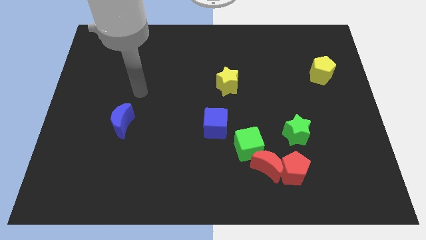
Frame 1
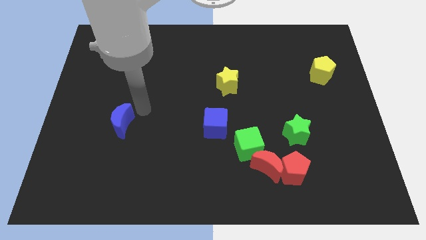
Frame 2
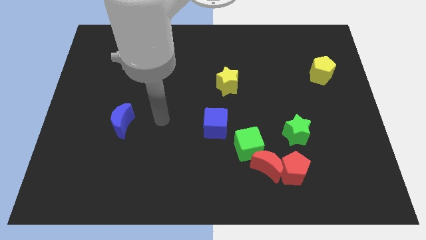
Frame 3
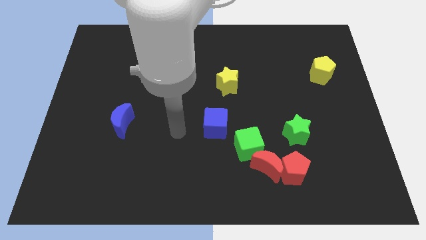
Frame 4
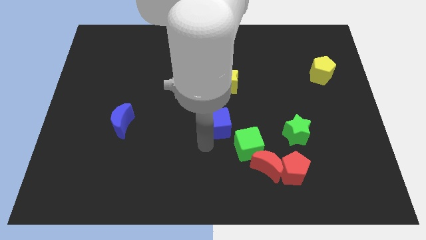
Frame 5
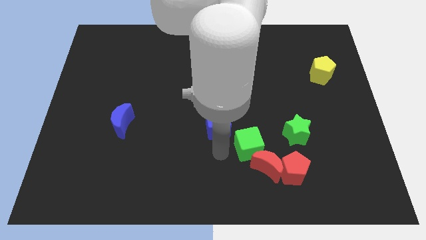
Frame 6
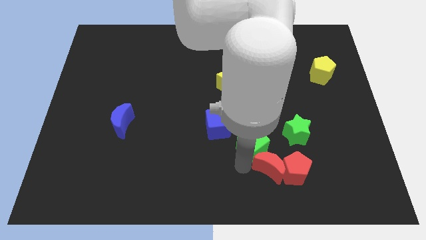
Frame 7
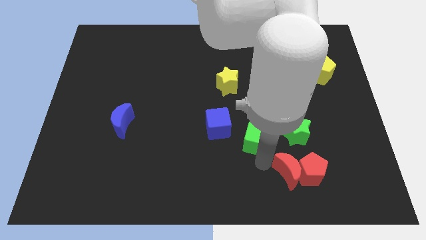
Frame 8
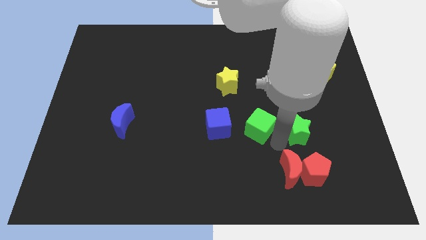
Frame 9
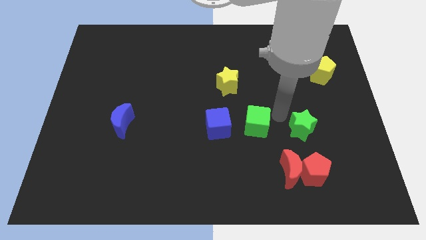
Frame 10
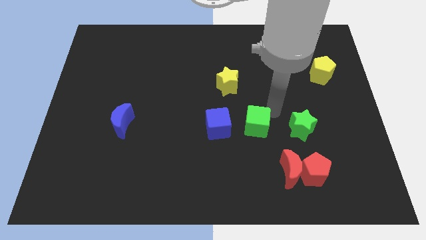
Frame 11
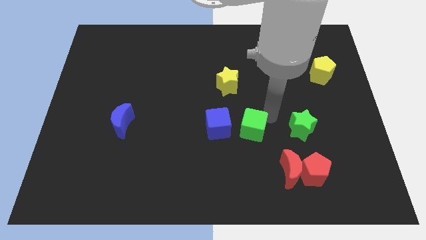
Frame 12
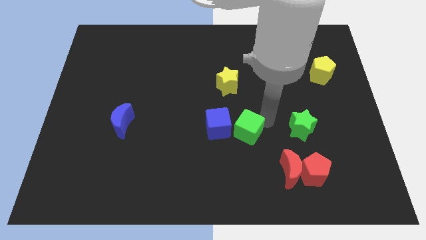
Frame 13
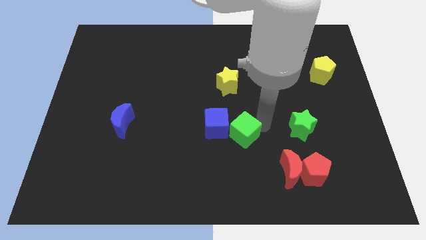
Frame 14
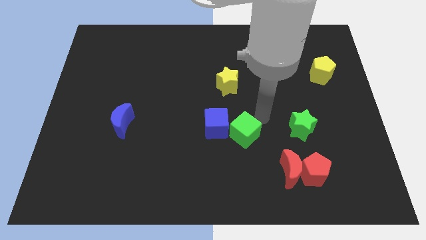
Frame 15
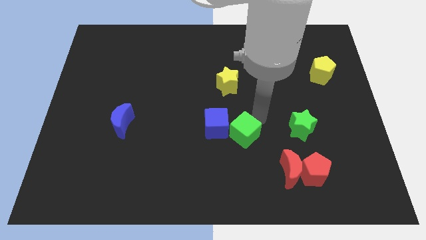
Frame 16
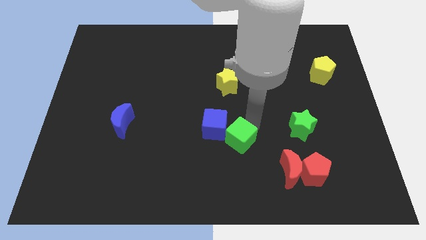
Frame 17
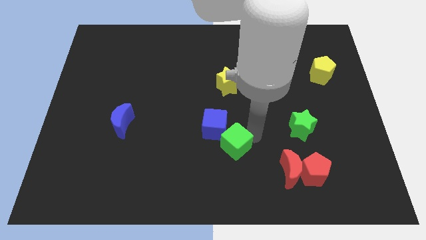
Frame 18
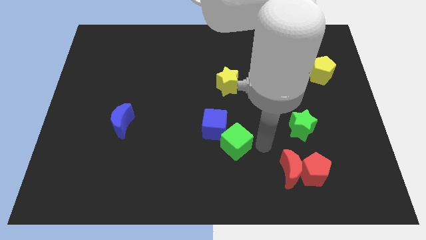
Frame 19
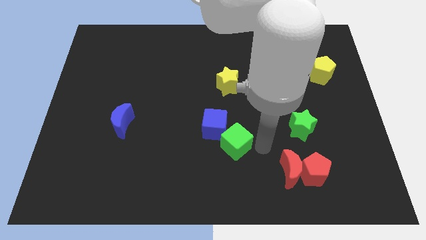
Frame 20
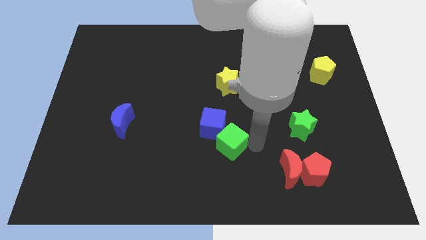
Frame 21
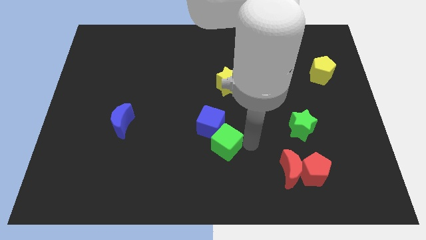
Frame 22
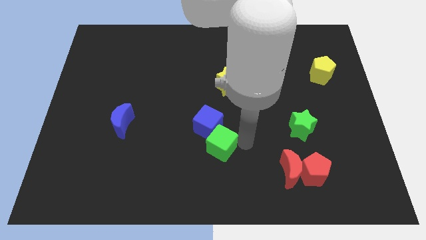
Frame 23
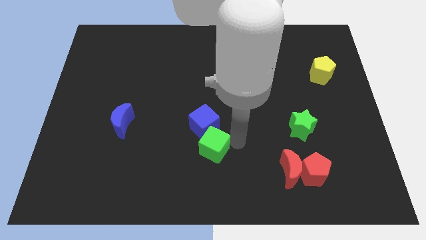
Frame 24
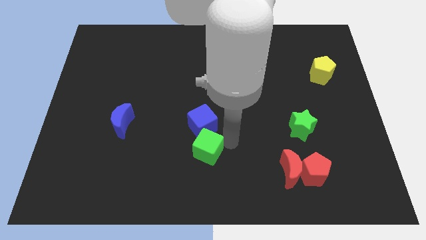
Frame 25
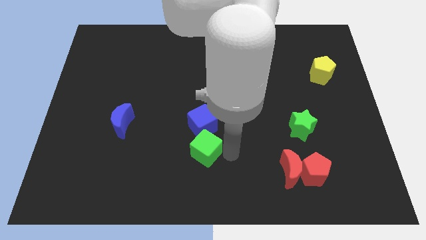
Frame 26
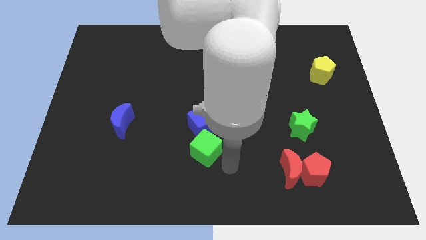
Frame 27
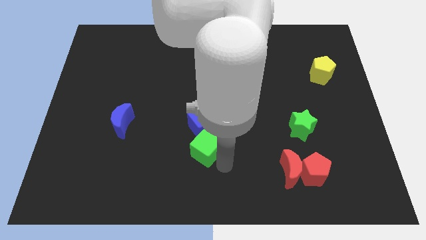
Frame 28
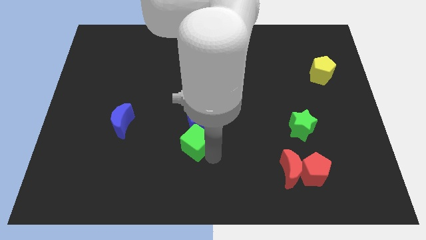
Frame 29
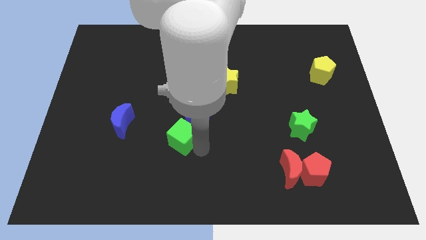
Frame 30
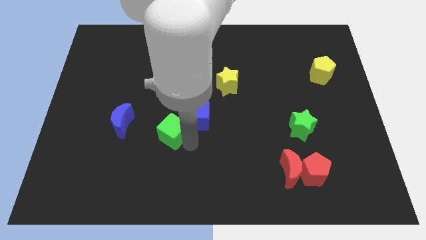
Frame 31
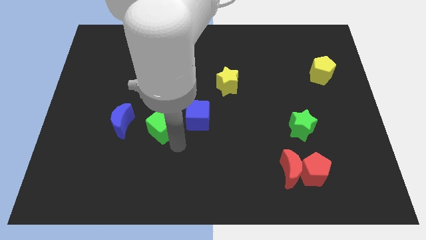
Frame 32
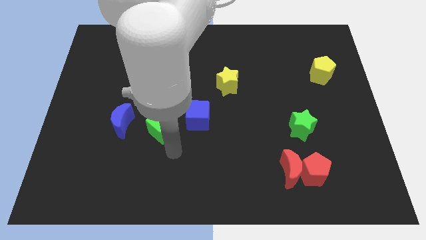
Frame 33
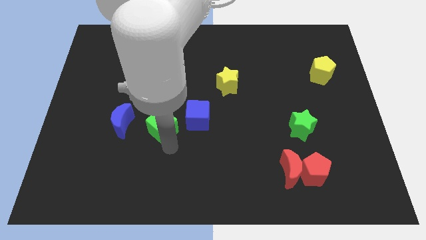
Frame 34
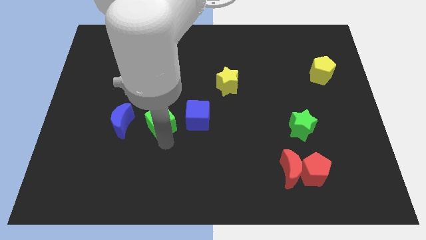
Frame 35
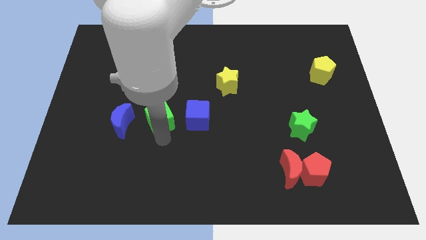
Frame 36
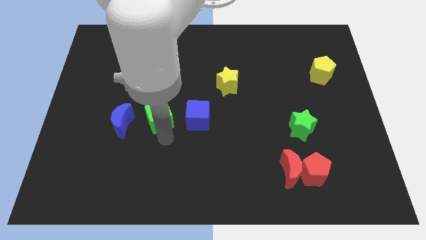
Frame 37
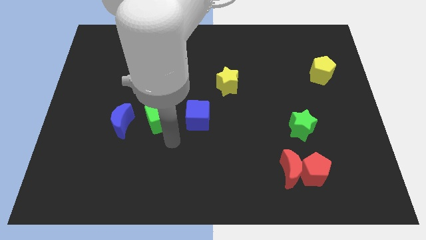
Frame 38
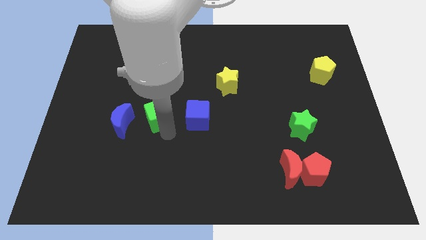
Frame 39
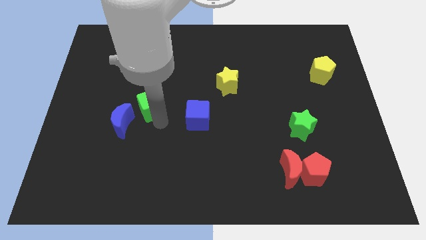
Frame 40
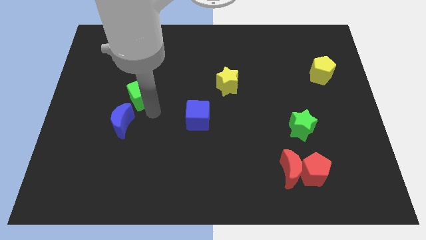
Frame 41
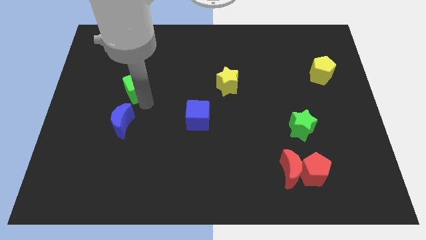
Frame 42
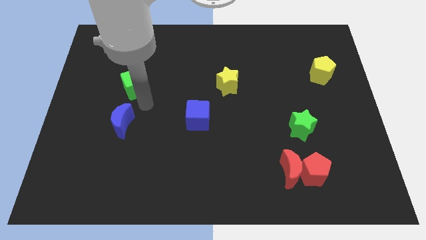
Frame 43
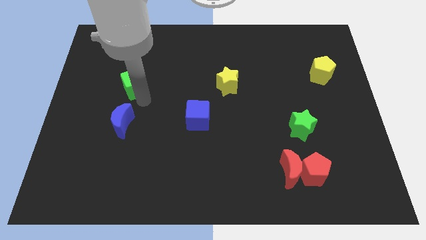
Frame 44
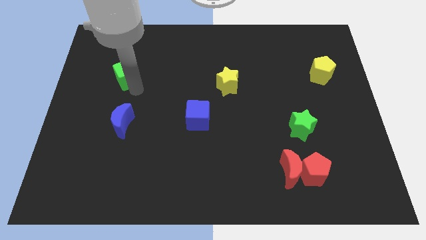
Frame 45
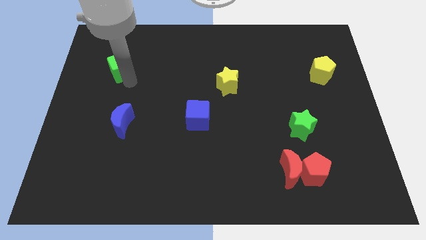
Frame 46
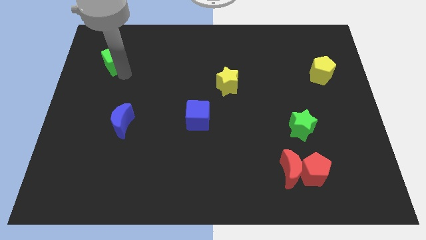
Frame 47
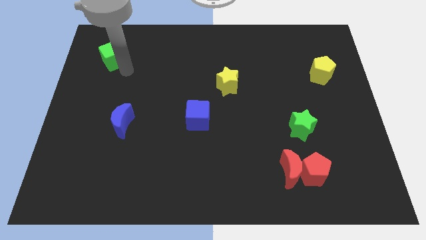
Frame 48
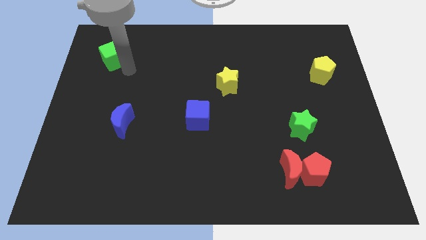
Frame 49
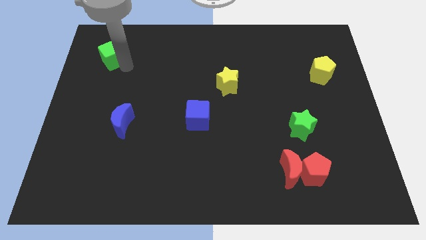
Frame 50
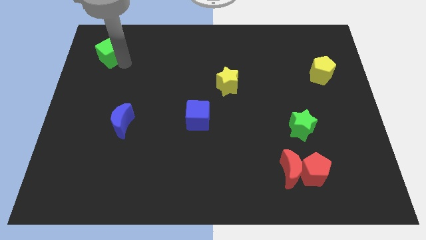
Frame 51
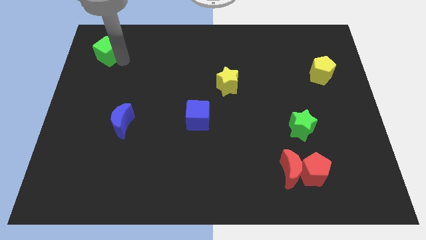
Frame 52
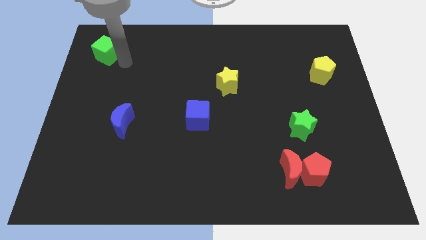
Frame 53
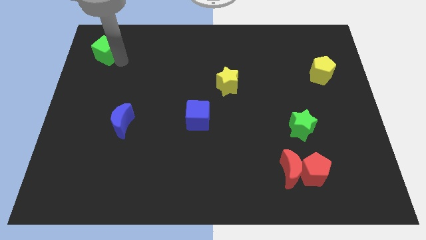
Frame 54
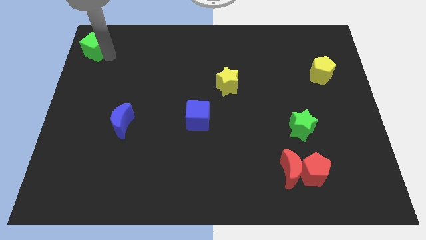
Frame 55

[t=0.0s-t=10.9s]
slide the green cube to the top left corner
